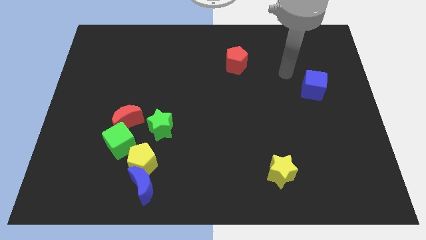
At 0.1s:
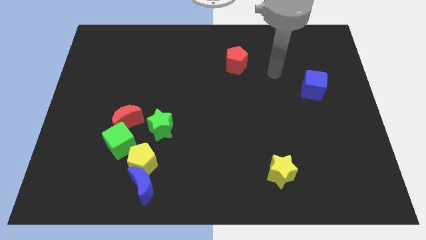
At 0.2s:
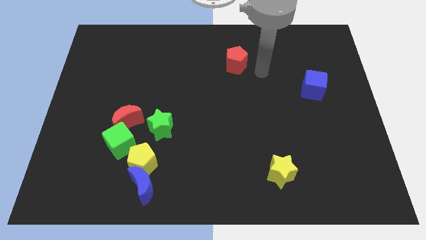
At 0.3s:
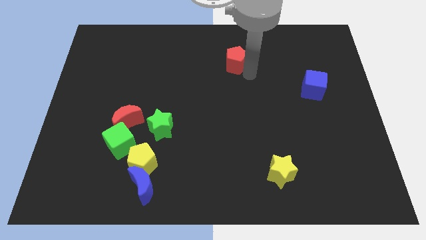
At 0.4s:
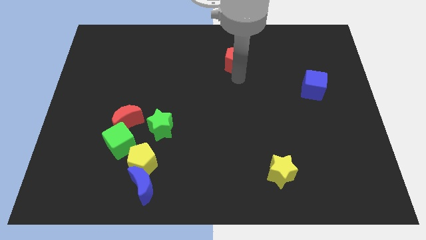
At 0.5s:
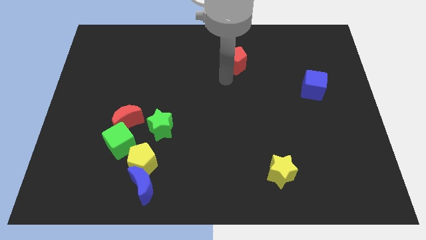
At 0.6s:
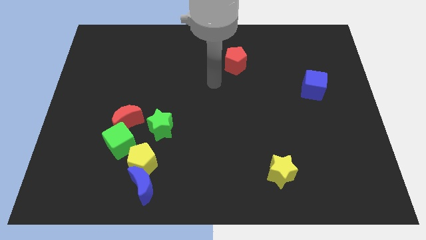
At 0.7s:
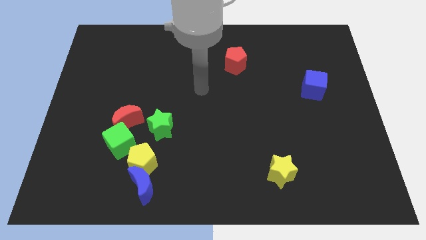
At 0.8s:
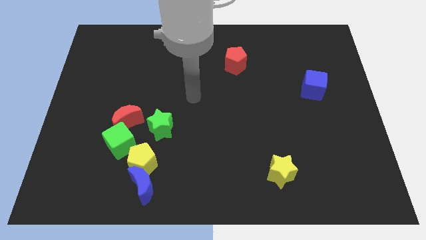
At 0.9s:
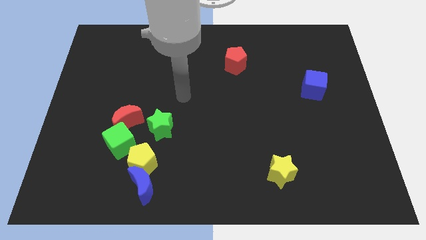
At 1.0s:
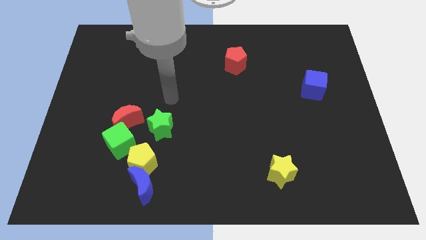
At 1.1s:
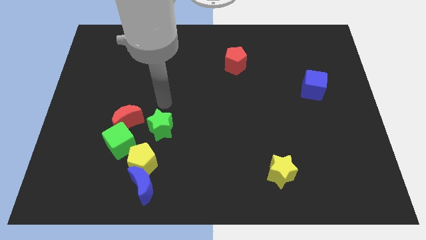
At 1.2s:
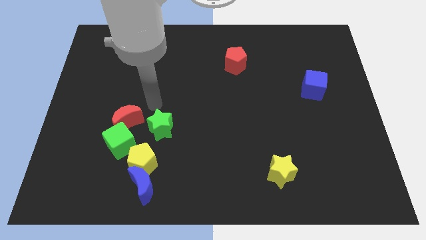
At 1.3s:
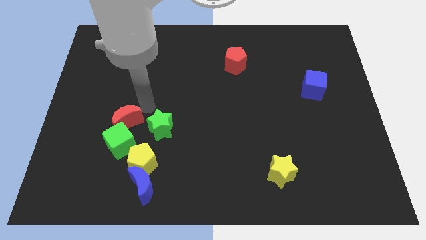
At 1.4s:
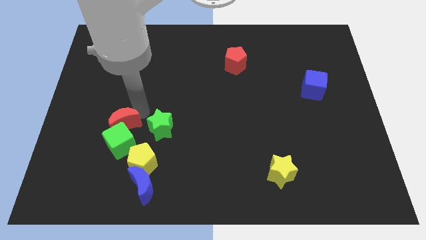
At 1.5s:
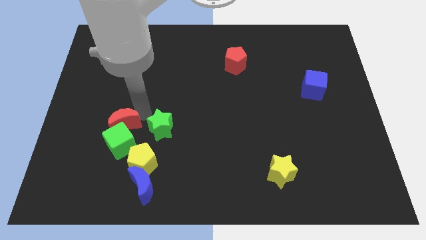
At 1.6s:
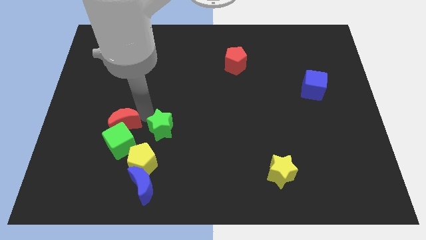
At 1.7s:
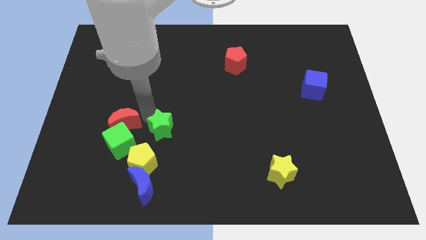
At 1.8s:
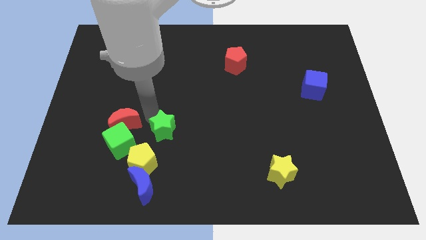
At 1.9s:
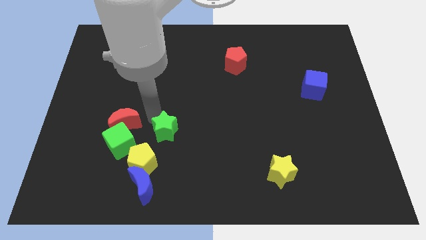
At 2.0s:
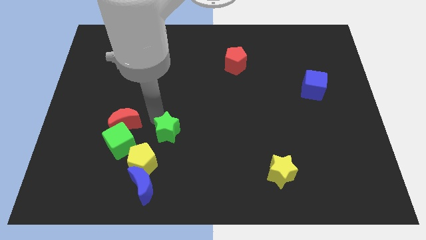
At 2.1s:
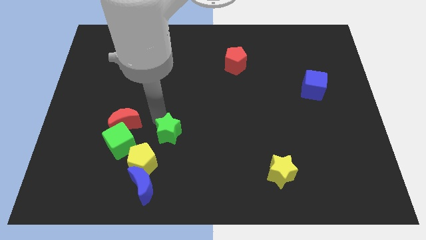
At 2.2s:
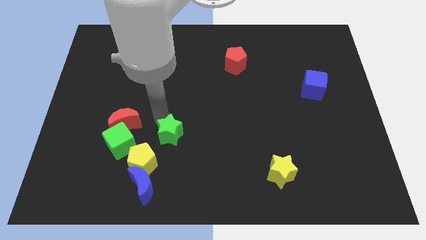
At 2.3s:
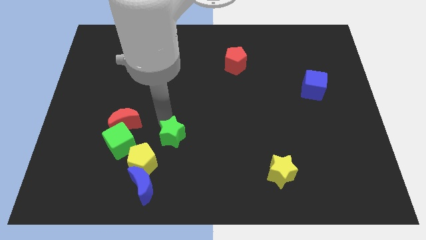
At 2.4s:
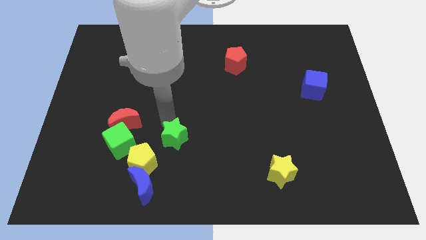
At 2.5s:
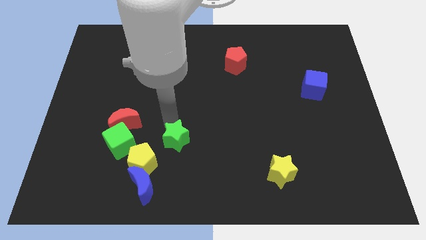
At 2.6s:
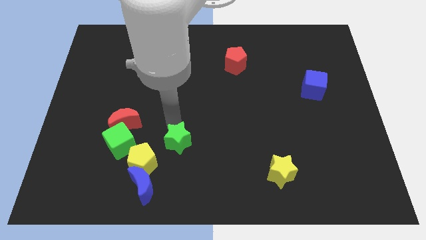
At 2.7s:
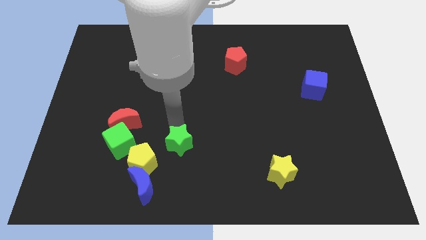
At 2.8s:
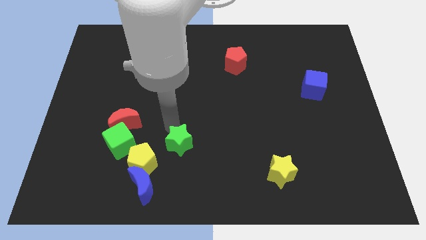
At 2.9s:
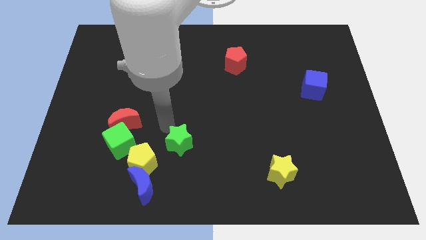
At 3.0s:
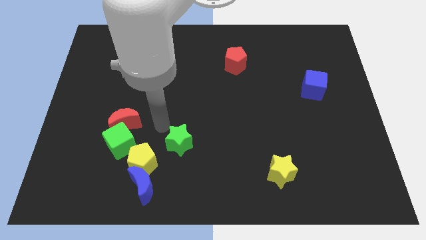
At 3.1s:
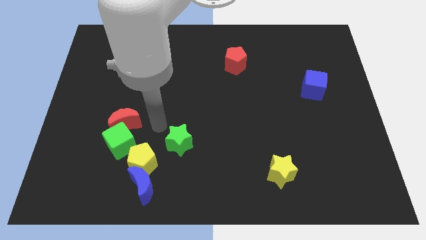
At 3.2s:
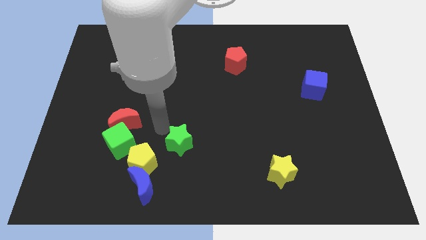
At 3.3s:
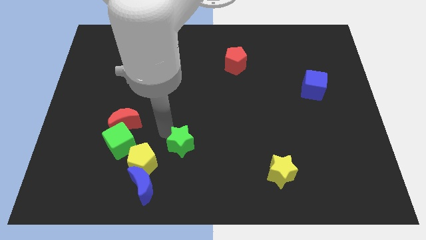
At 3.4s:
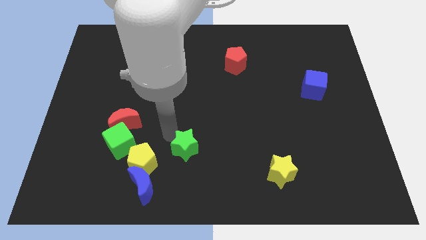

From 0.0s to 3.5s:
move the green star downwards and right slightly

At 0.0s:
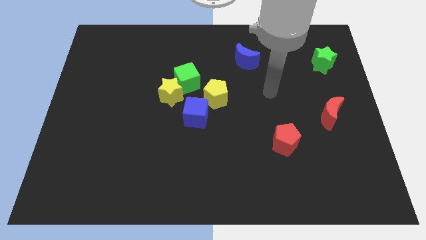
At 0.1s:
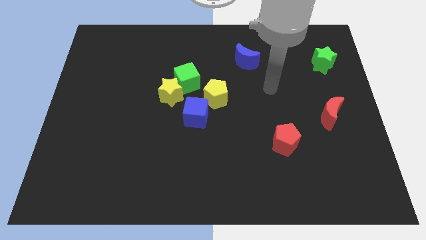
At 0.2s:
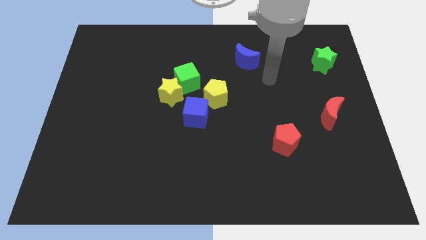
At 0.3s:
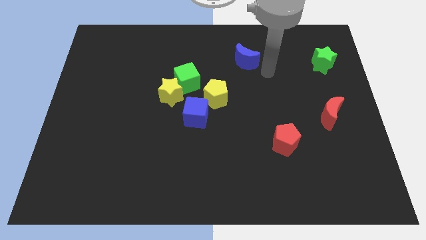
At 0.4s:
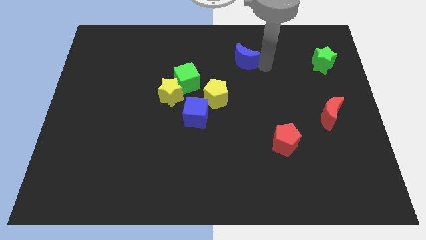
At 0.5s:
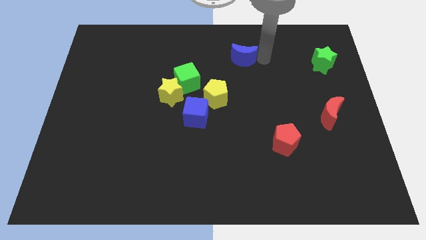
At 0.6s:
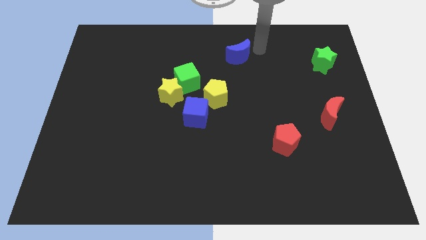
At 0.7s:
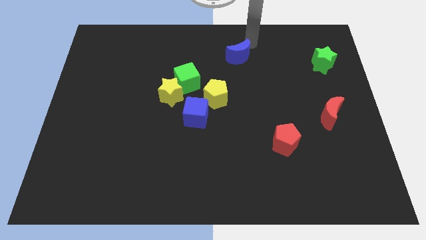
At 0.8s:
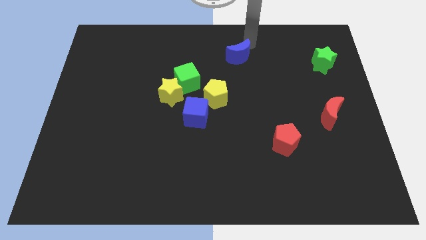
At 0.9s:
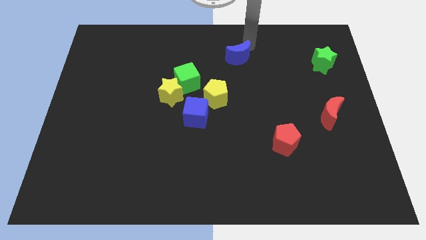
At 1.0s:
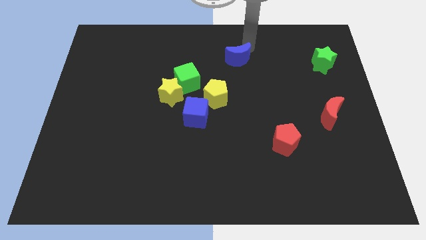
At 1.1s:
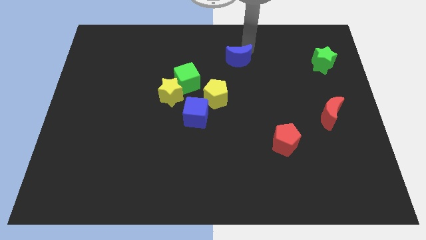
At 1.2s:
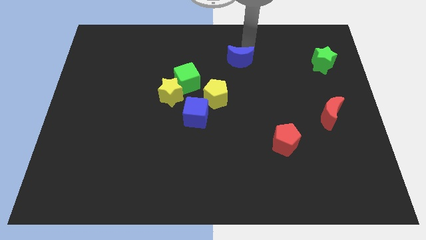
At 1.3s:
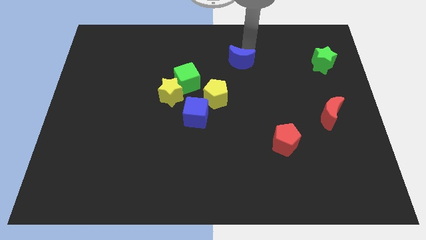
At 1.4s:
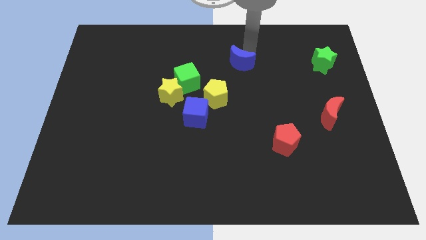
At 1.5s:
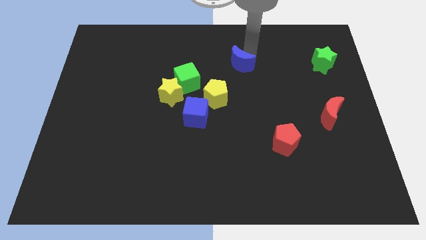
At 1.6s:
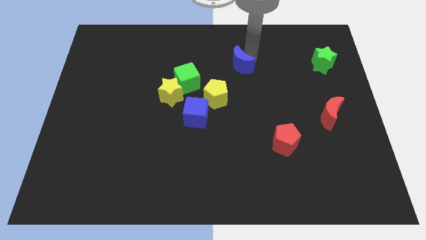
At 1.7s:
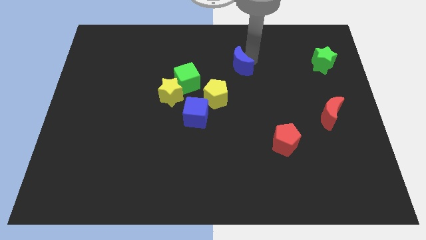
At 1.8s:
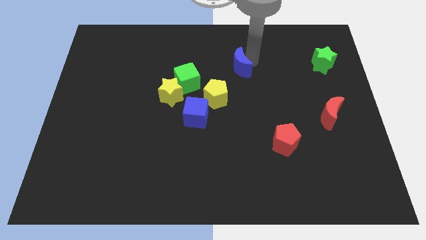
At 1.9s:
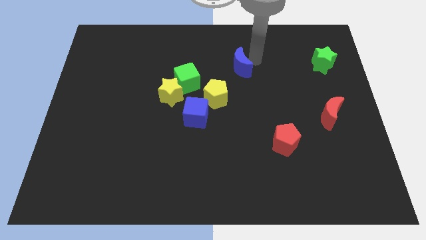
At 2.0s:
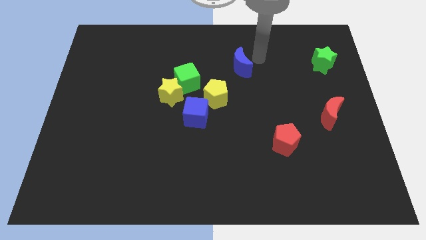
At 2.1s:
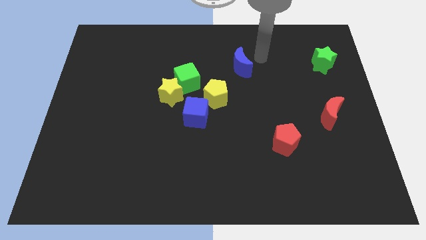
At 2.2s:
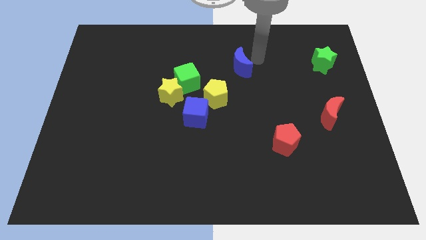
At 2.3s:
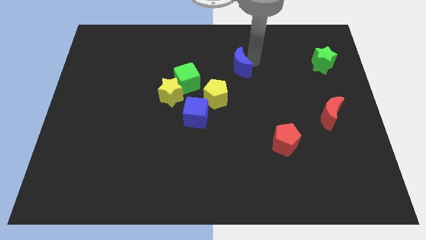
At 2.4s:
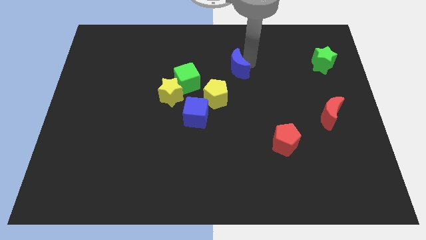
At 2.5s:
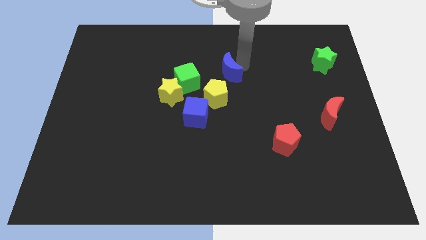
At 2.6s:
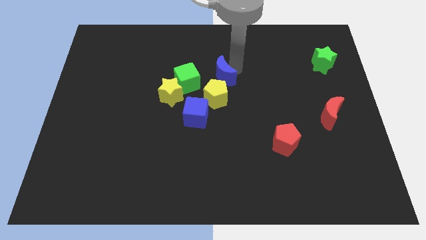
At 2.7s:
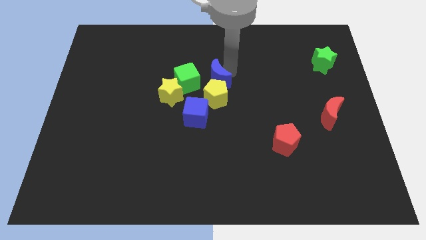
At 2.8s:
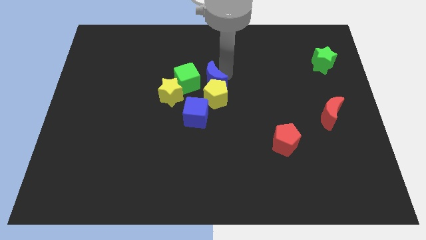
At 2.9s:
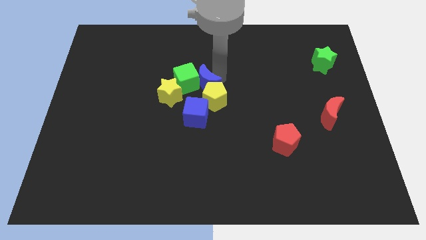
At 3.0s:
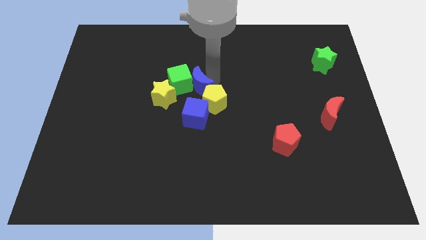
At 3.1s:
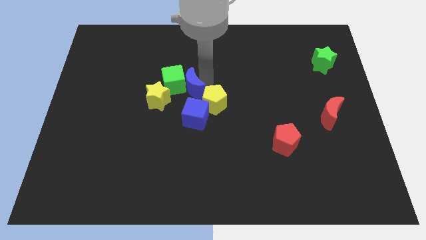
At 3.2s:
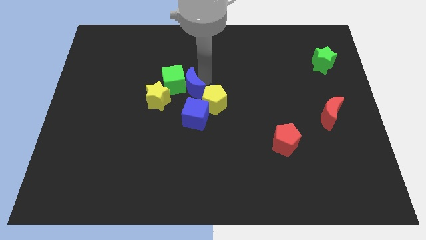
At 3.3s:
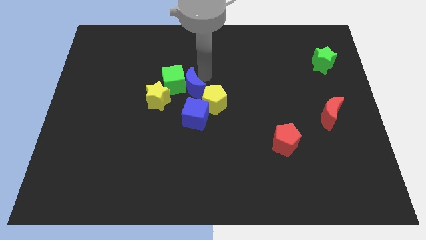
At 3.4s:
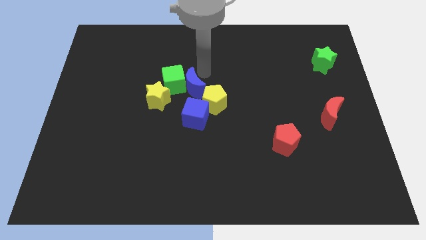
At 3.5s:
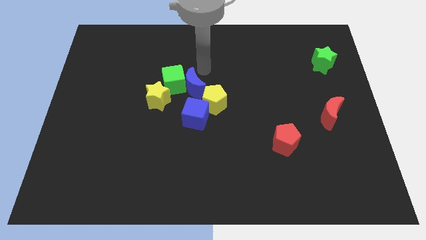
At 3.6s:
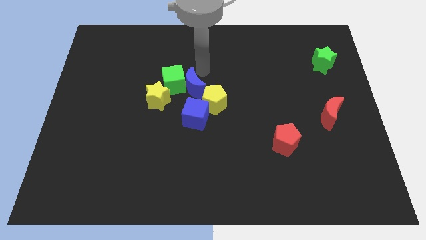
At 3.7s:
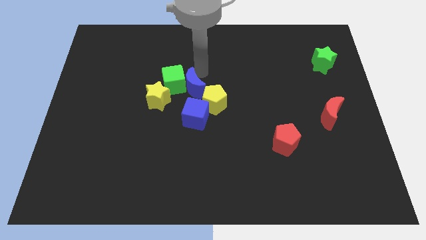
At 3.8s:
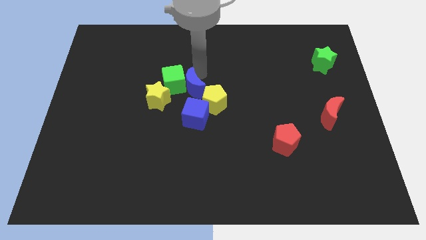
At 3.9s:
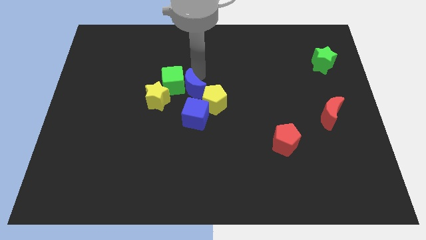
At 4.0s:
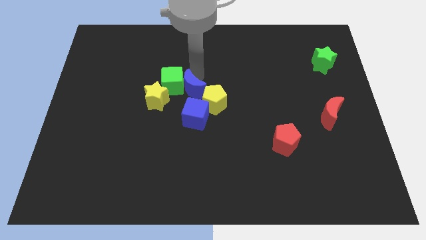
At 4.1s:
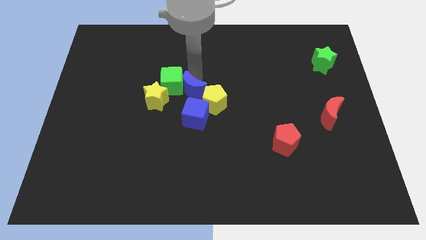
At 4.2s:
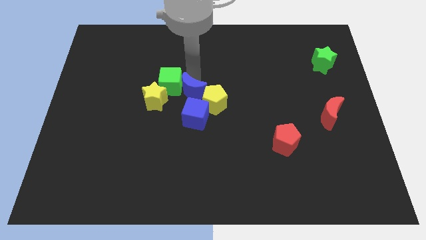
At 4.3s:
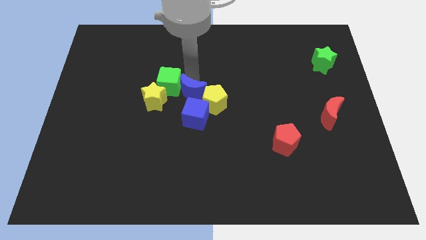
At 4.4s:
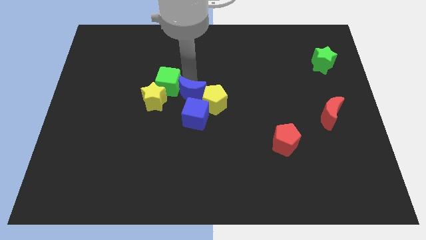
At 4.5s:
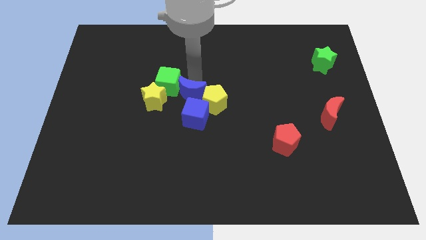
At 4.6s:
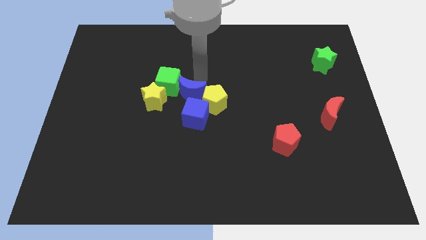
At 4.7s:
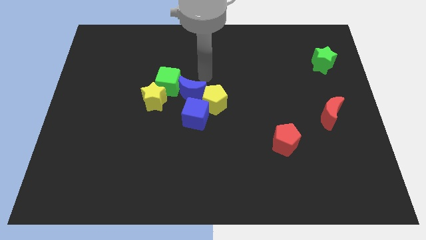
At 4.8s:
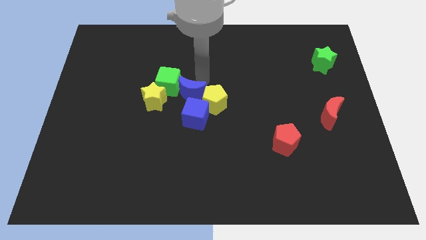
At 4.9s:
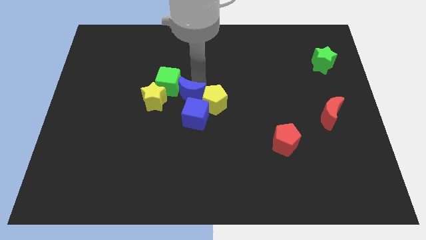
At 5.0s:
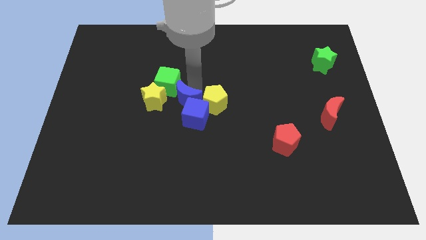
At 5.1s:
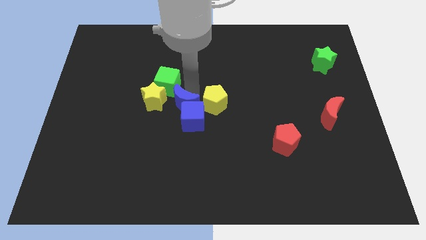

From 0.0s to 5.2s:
move the blue moon downwards and left diagonally
